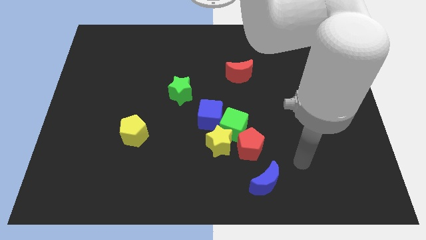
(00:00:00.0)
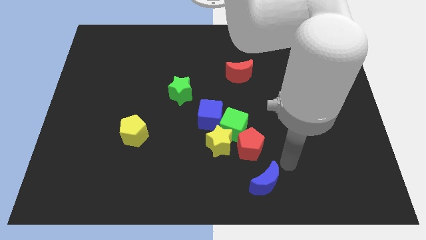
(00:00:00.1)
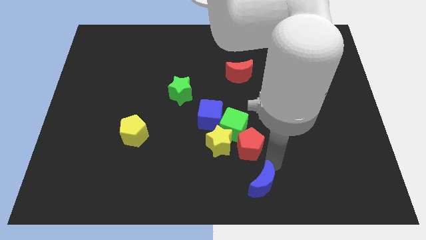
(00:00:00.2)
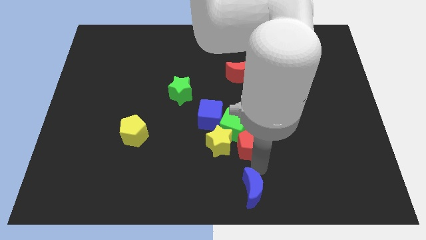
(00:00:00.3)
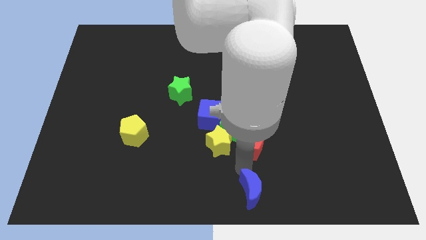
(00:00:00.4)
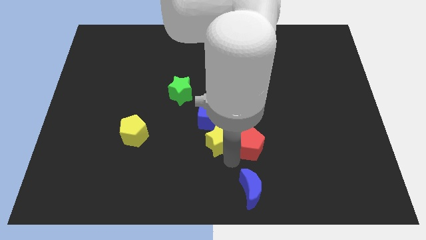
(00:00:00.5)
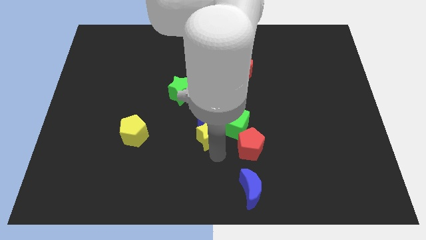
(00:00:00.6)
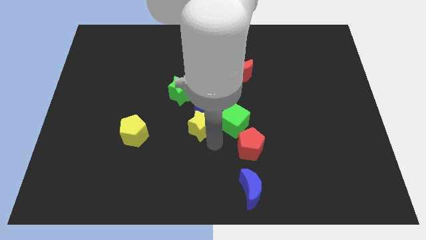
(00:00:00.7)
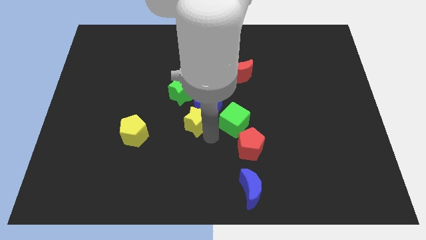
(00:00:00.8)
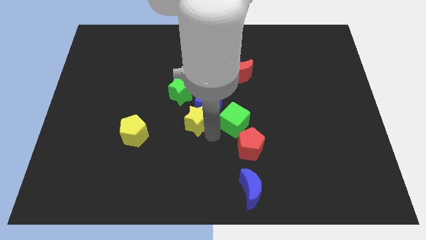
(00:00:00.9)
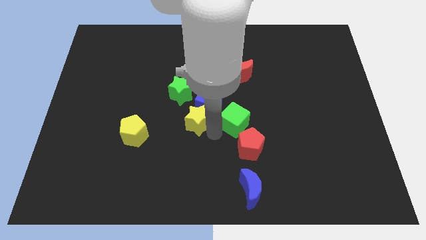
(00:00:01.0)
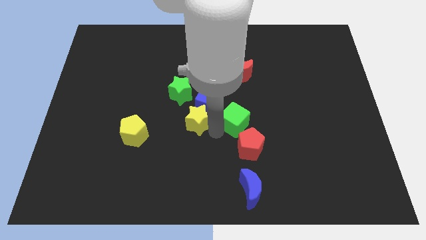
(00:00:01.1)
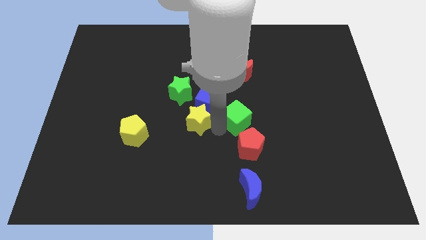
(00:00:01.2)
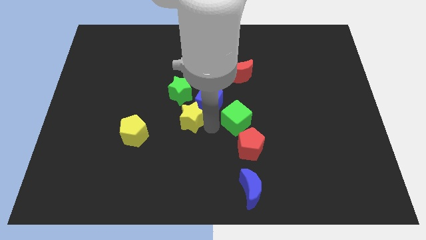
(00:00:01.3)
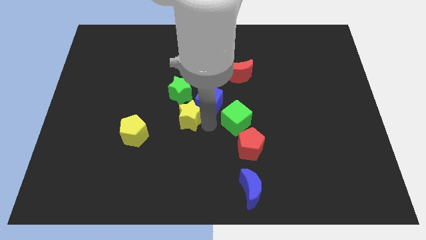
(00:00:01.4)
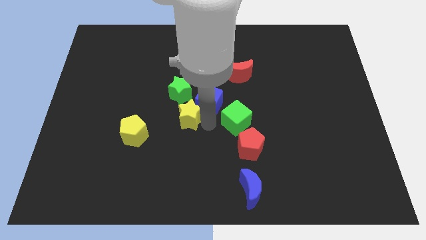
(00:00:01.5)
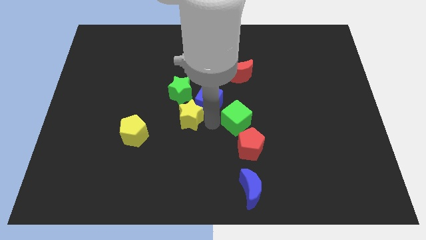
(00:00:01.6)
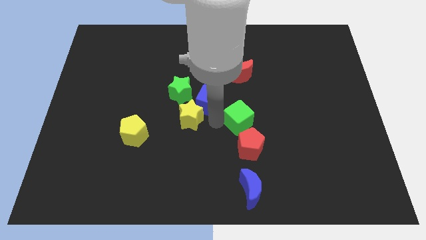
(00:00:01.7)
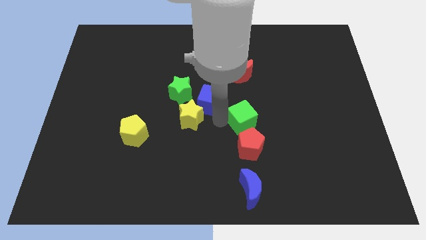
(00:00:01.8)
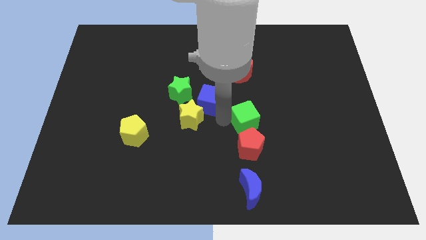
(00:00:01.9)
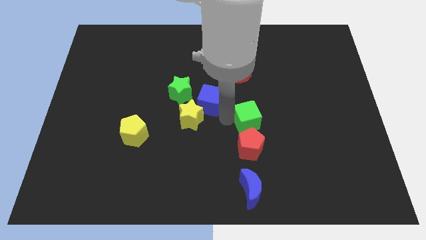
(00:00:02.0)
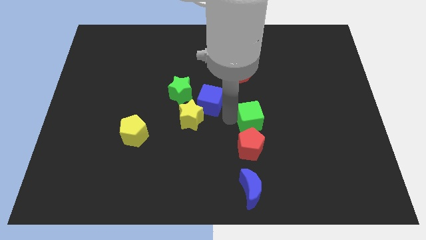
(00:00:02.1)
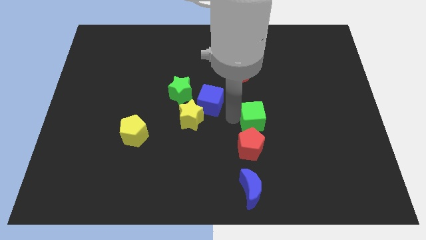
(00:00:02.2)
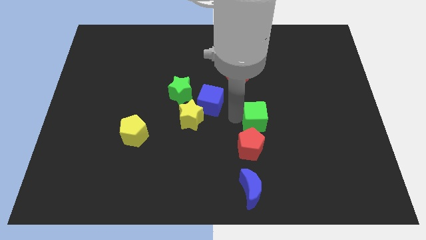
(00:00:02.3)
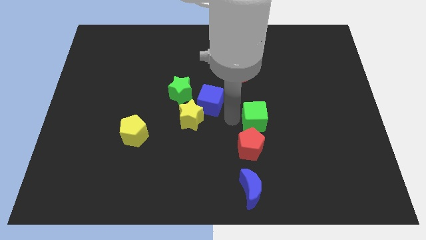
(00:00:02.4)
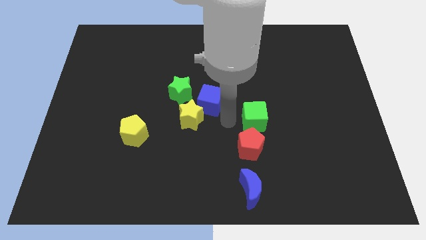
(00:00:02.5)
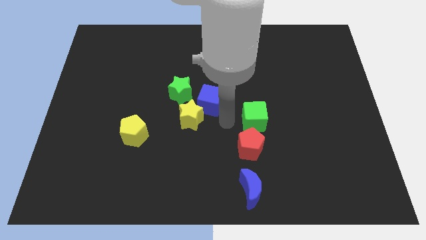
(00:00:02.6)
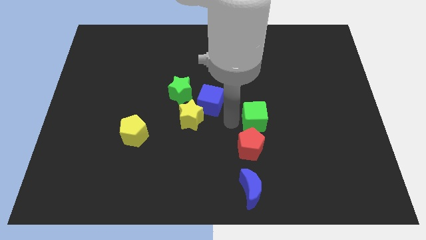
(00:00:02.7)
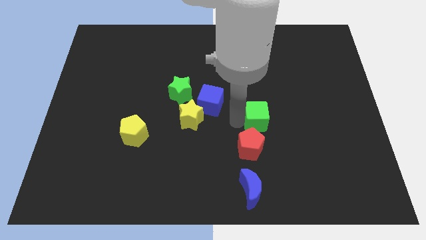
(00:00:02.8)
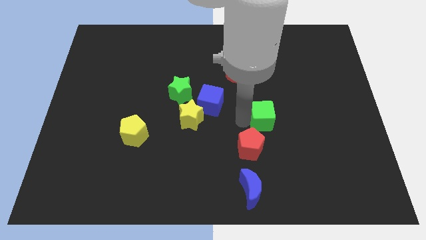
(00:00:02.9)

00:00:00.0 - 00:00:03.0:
separate the green cube from the clump

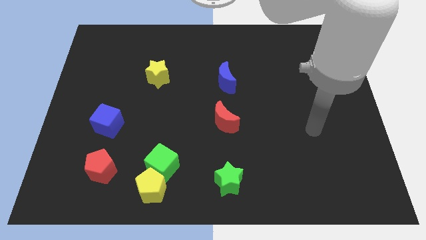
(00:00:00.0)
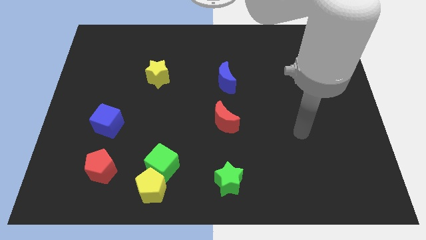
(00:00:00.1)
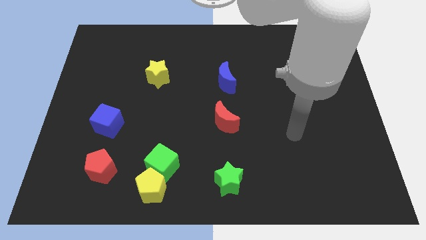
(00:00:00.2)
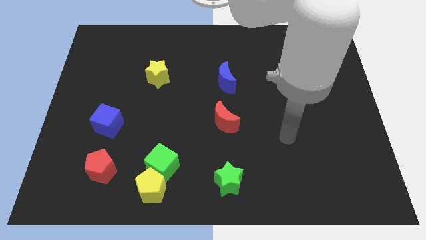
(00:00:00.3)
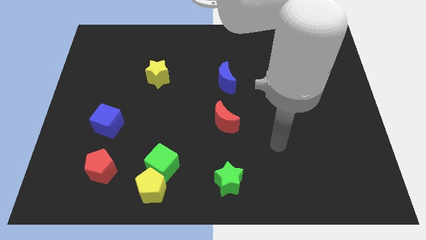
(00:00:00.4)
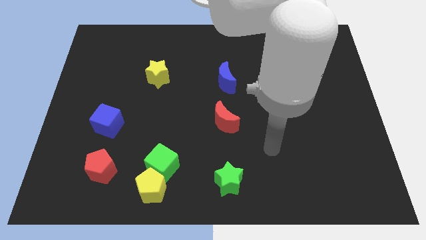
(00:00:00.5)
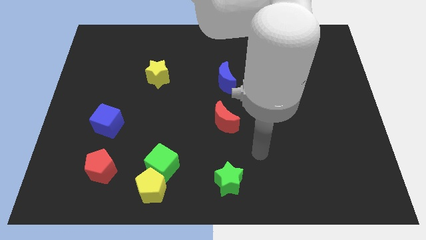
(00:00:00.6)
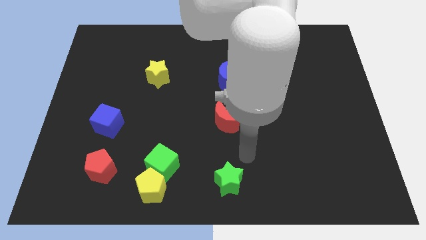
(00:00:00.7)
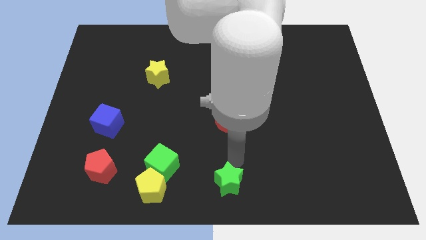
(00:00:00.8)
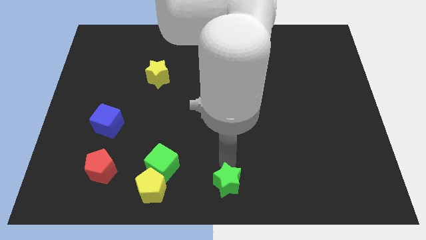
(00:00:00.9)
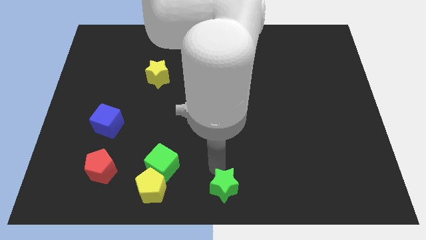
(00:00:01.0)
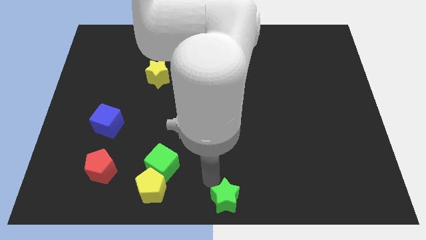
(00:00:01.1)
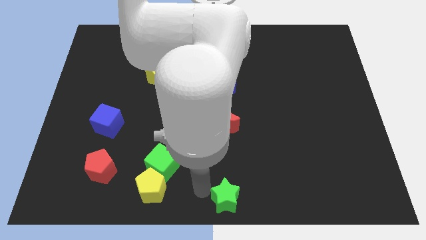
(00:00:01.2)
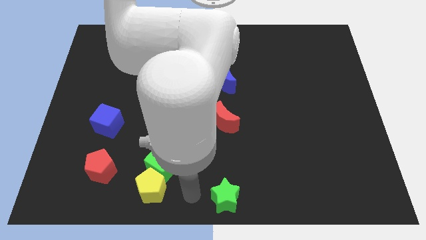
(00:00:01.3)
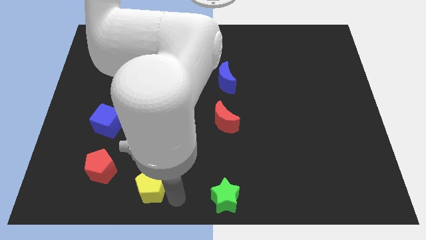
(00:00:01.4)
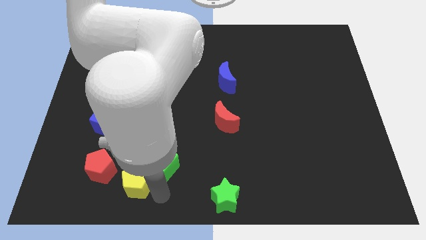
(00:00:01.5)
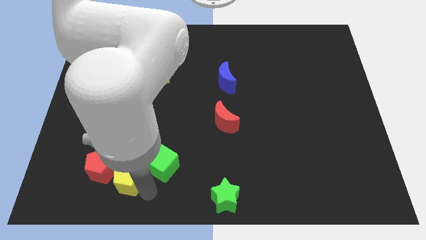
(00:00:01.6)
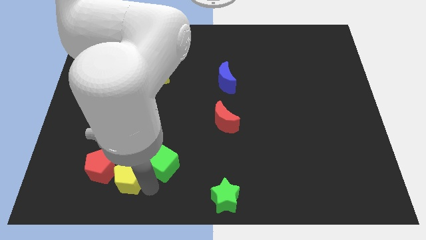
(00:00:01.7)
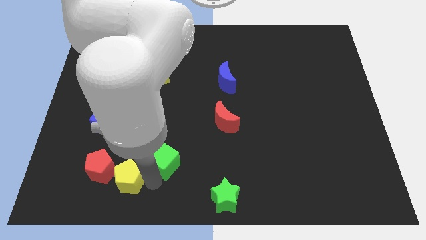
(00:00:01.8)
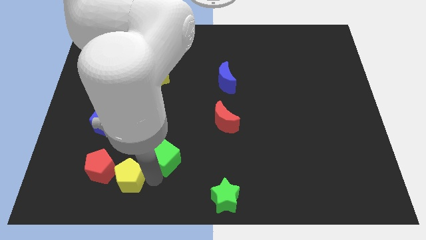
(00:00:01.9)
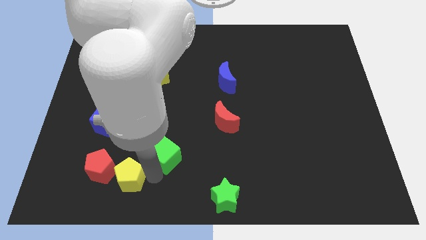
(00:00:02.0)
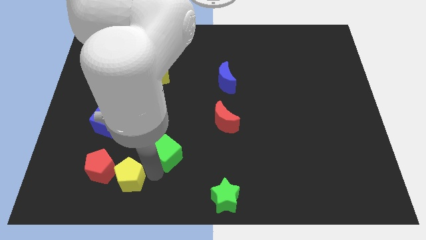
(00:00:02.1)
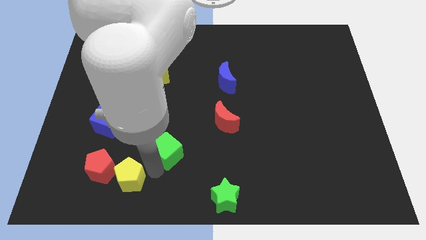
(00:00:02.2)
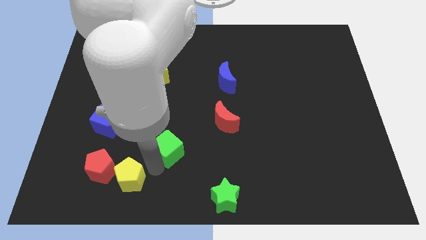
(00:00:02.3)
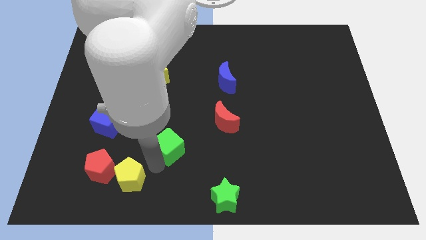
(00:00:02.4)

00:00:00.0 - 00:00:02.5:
move the green cube away from the yellow pentagon

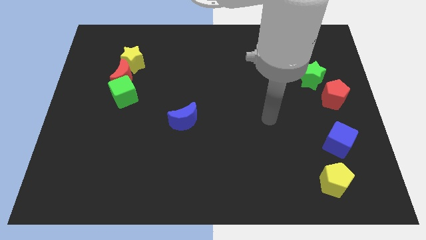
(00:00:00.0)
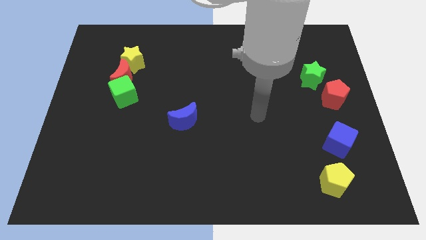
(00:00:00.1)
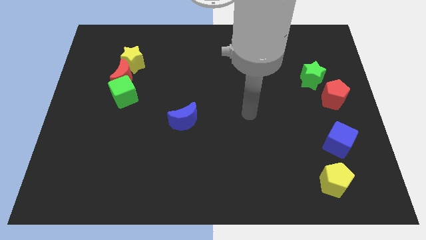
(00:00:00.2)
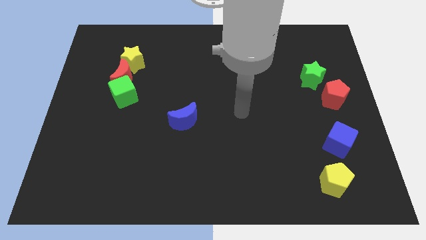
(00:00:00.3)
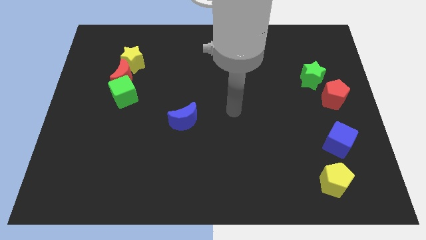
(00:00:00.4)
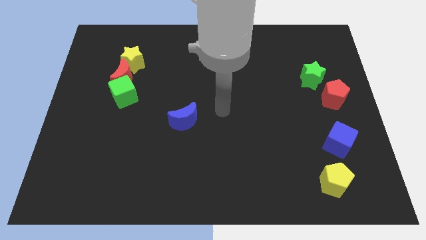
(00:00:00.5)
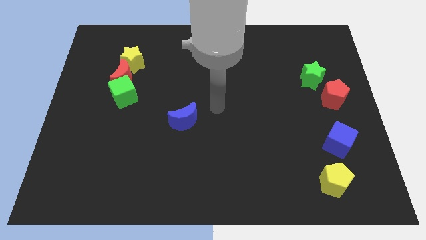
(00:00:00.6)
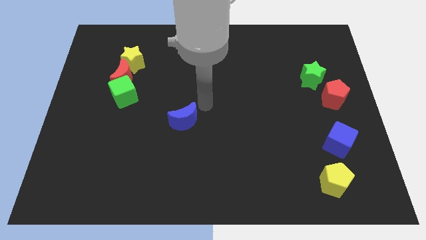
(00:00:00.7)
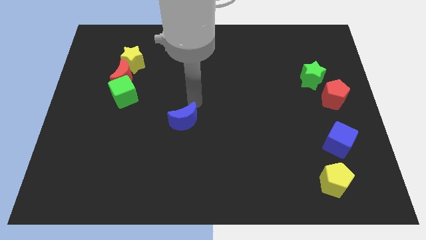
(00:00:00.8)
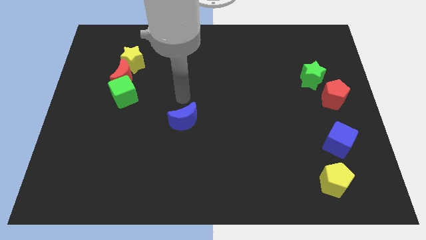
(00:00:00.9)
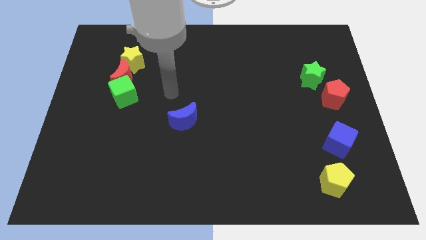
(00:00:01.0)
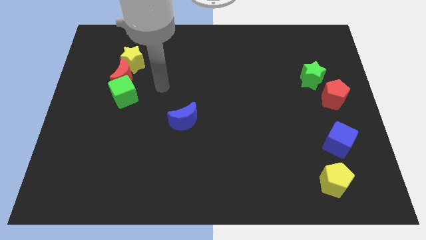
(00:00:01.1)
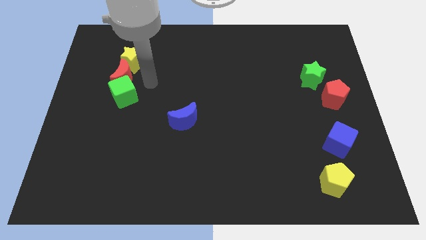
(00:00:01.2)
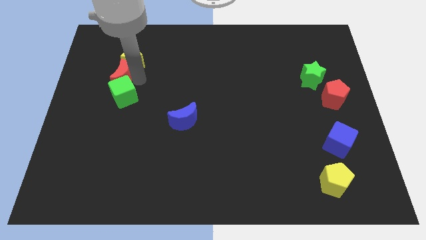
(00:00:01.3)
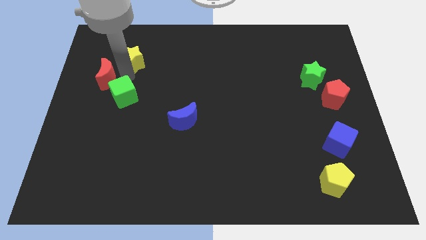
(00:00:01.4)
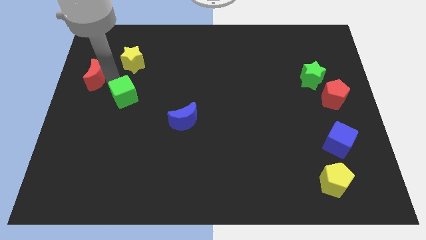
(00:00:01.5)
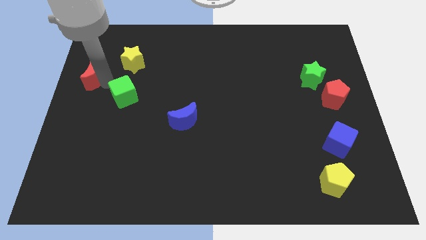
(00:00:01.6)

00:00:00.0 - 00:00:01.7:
move the green cube away from the red moon

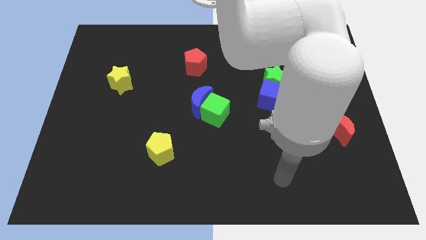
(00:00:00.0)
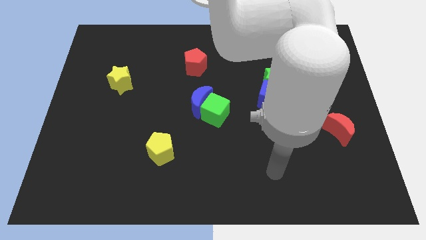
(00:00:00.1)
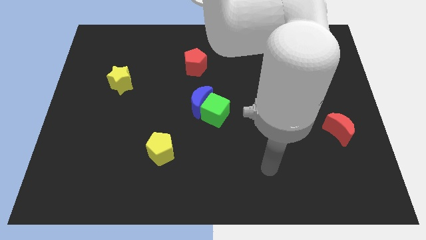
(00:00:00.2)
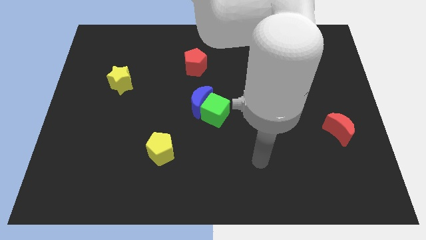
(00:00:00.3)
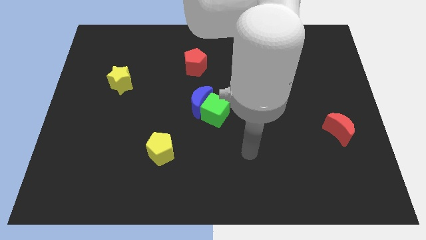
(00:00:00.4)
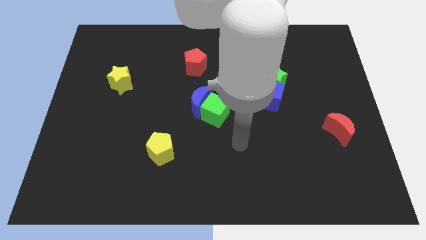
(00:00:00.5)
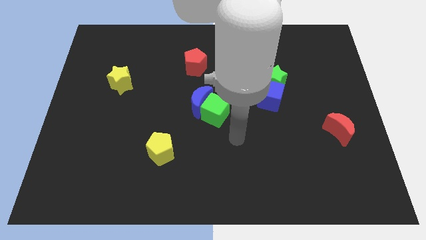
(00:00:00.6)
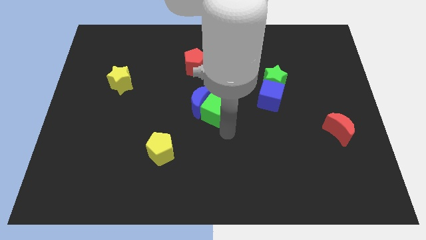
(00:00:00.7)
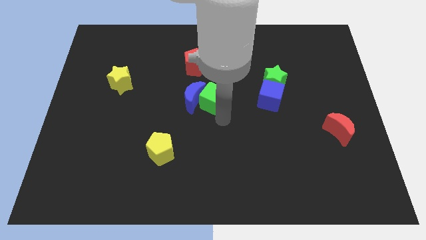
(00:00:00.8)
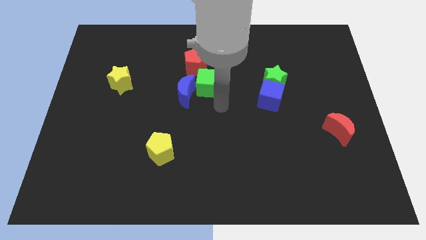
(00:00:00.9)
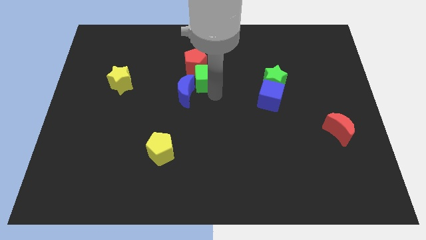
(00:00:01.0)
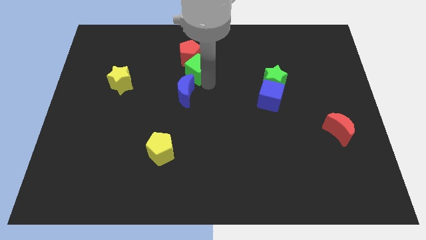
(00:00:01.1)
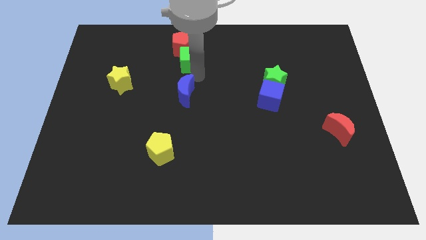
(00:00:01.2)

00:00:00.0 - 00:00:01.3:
separate the blue moon from the green cube

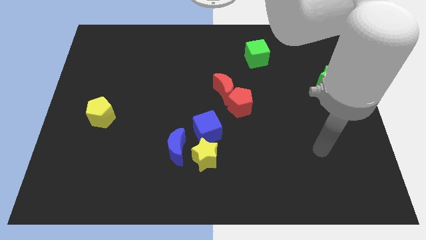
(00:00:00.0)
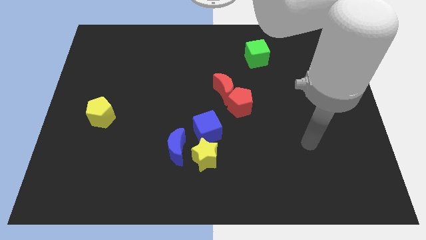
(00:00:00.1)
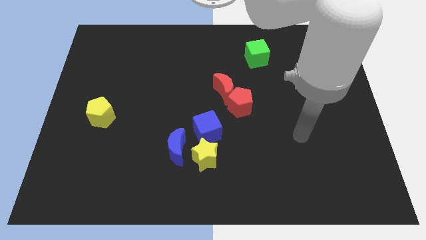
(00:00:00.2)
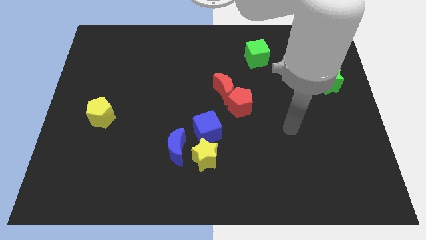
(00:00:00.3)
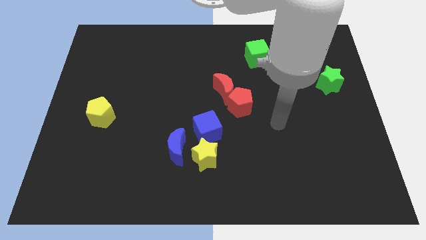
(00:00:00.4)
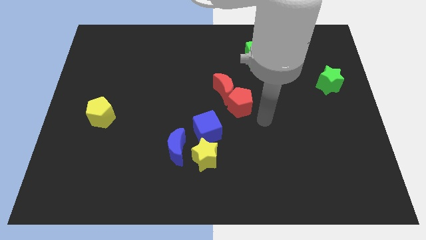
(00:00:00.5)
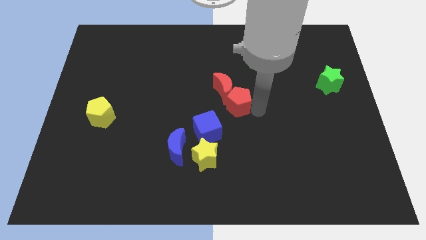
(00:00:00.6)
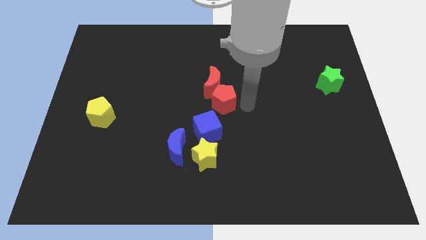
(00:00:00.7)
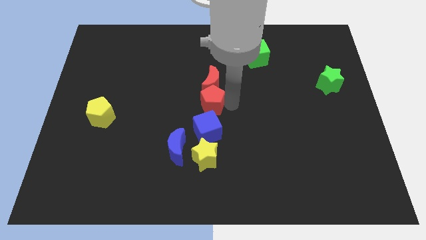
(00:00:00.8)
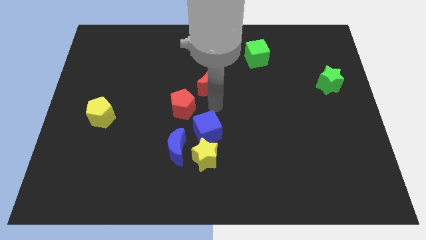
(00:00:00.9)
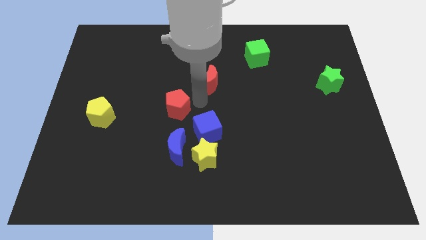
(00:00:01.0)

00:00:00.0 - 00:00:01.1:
pull the red moon apart from the red pentagon
